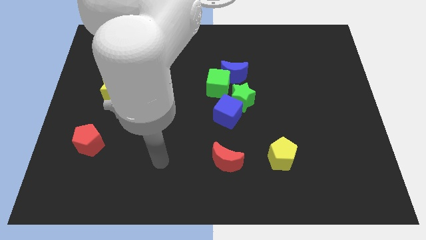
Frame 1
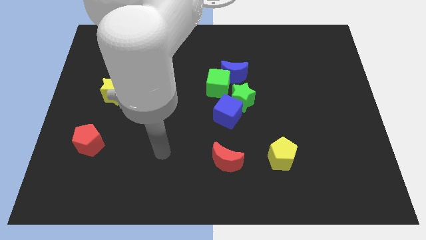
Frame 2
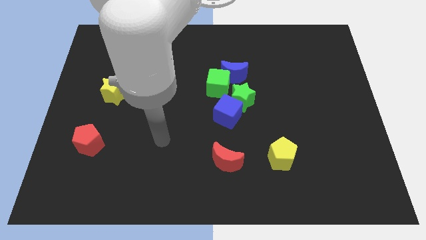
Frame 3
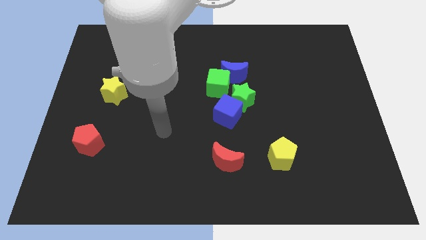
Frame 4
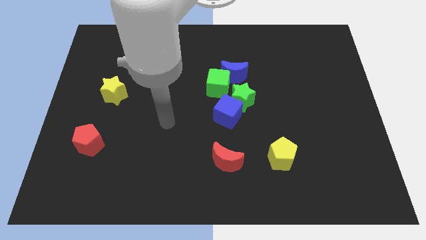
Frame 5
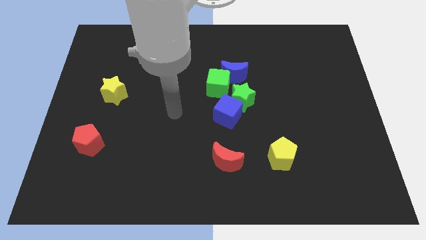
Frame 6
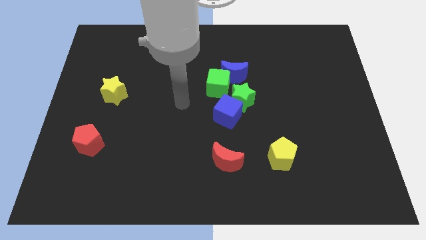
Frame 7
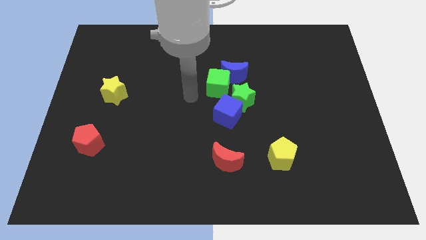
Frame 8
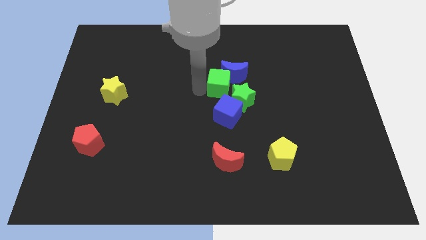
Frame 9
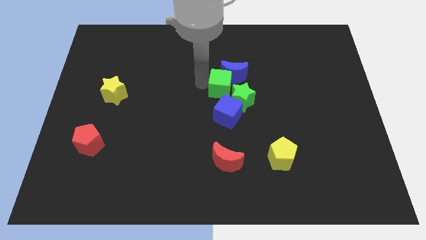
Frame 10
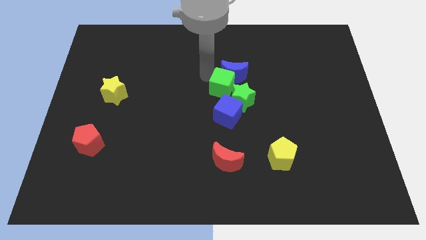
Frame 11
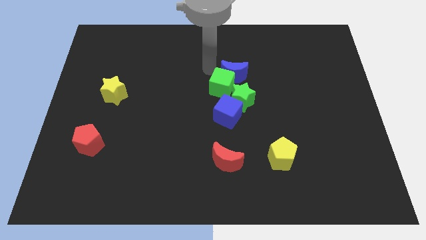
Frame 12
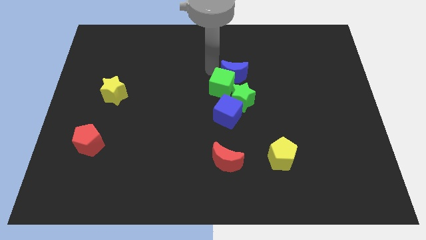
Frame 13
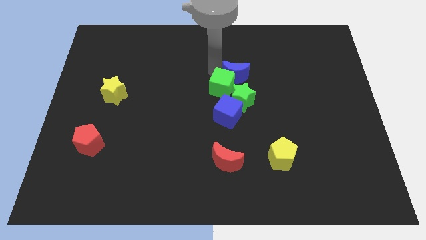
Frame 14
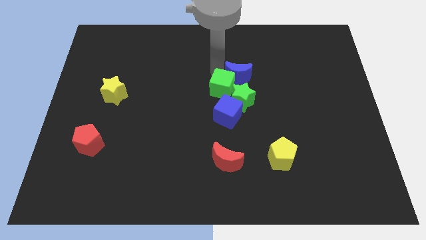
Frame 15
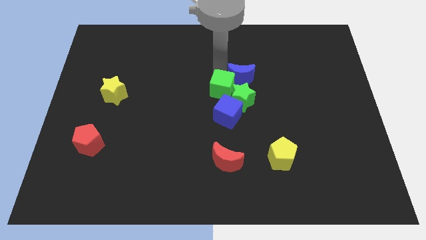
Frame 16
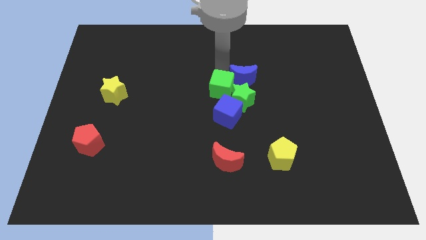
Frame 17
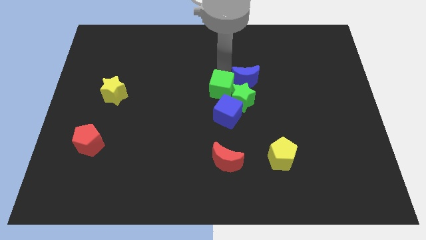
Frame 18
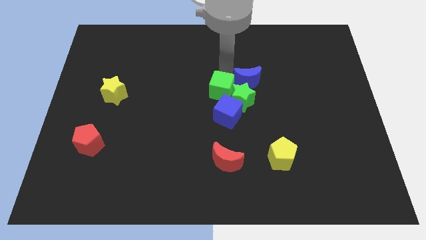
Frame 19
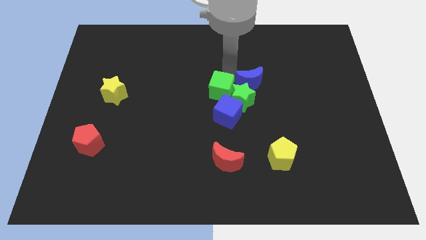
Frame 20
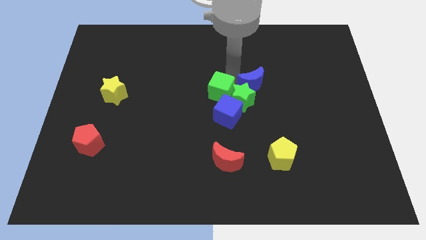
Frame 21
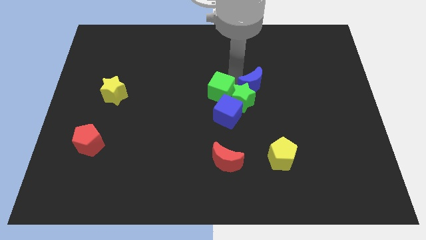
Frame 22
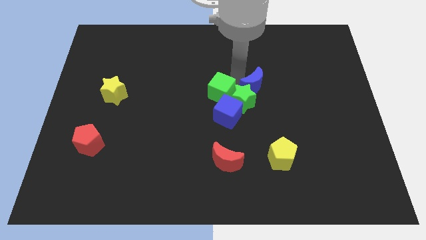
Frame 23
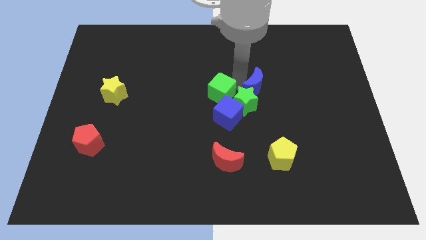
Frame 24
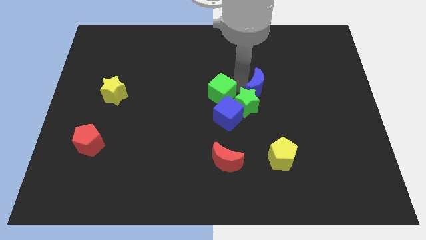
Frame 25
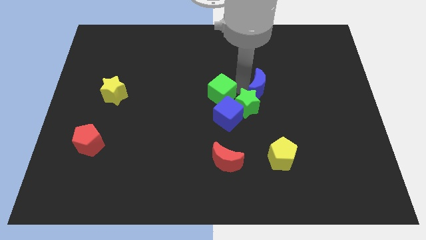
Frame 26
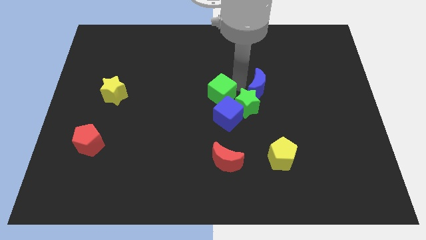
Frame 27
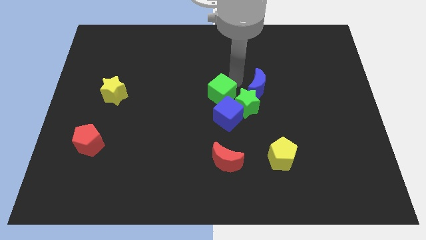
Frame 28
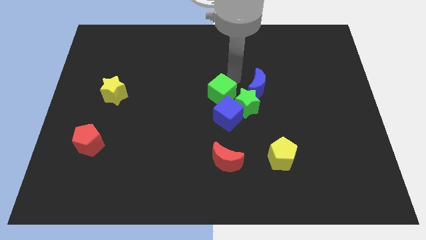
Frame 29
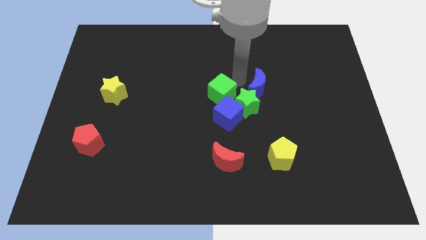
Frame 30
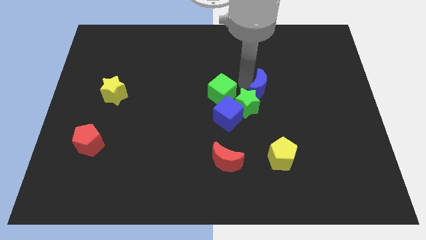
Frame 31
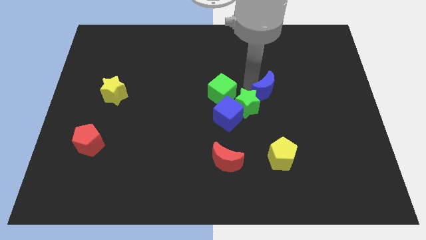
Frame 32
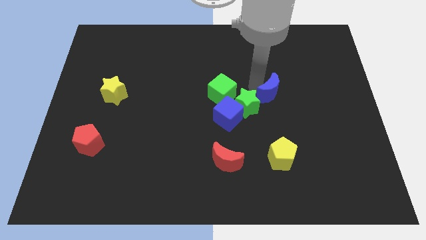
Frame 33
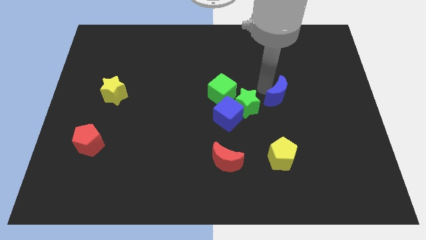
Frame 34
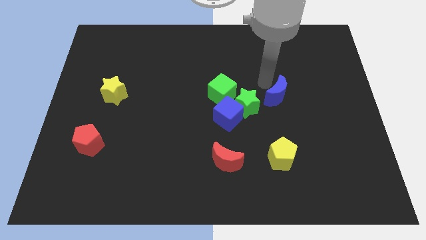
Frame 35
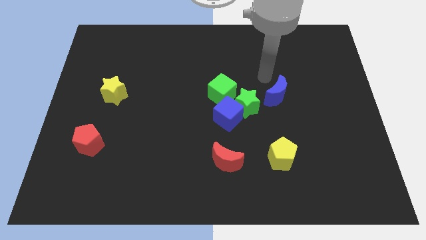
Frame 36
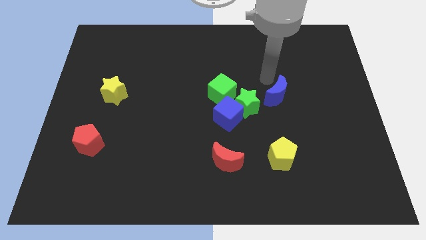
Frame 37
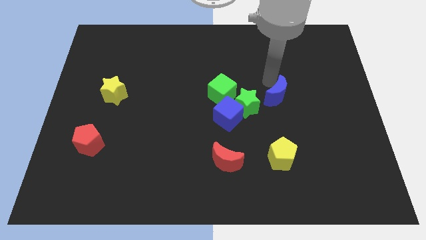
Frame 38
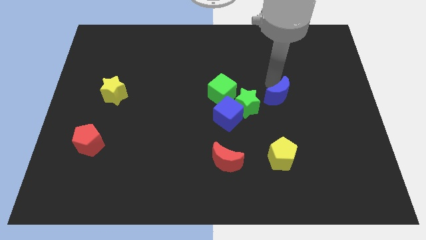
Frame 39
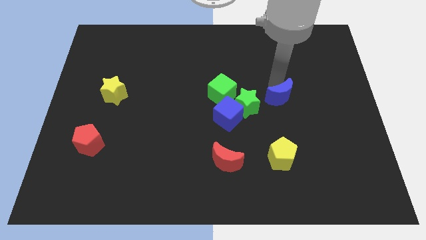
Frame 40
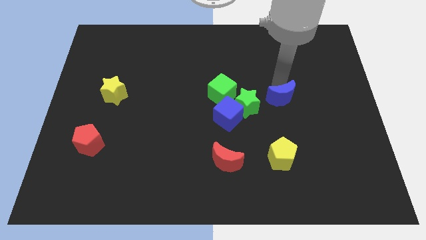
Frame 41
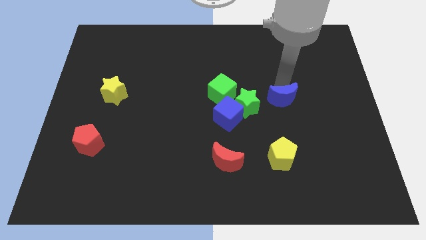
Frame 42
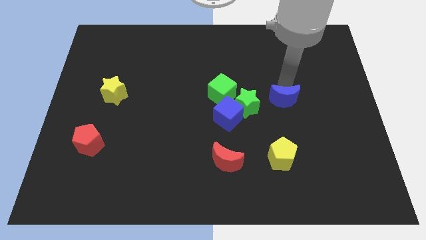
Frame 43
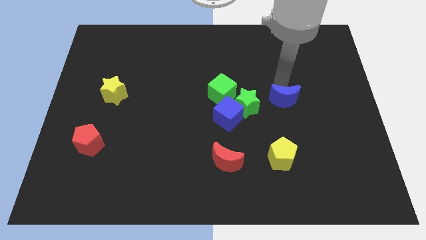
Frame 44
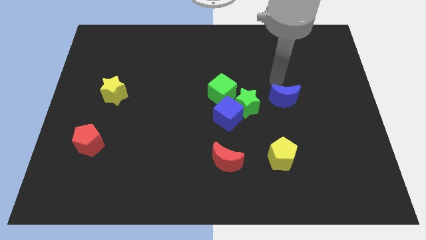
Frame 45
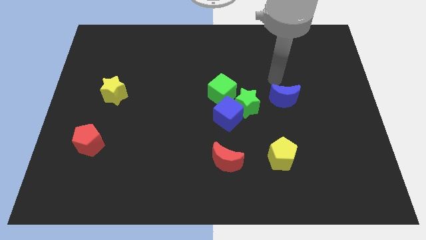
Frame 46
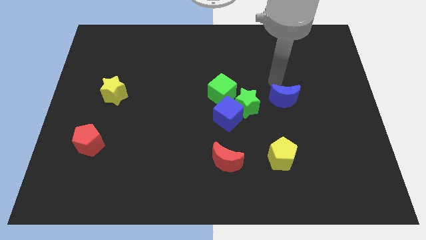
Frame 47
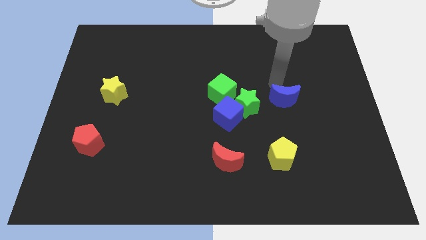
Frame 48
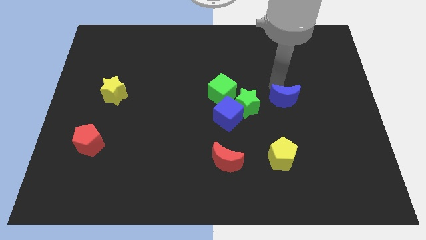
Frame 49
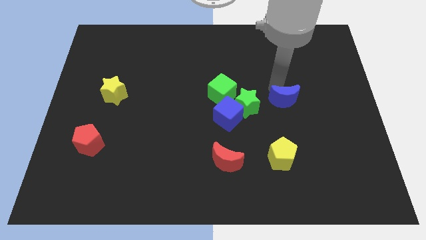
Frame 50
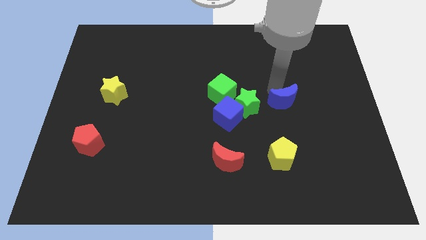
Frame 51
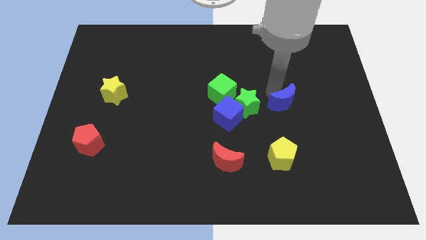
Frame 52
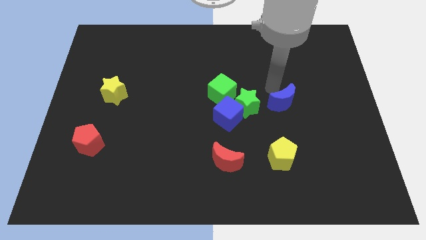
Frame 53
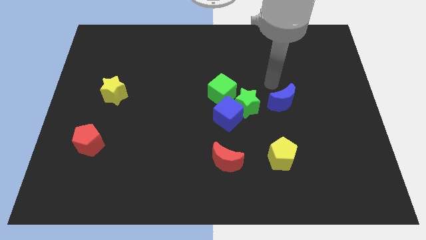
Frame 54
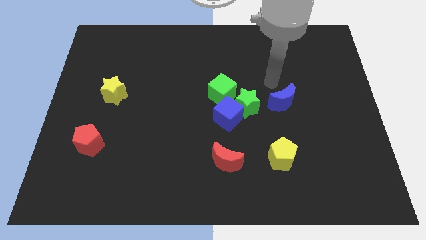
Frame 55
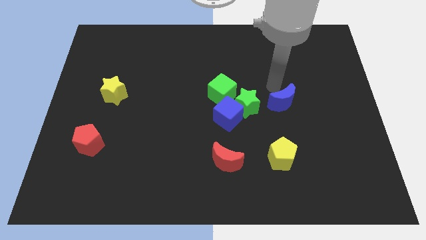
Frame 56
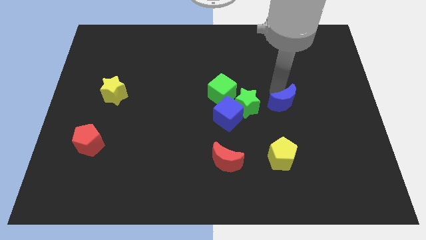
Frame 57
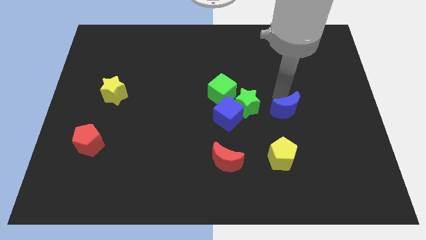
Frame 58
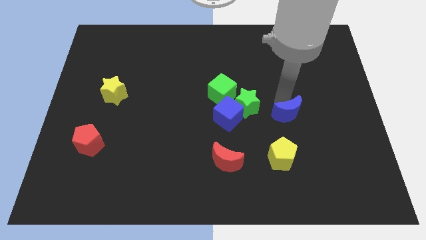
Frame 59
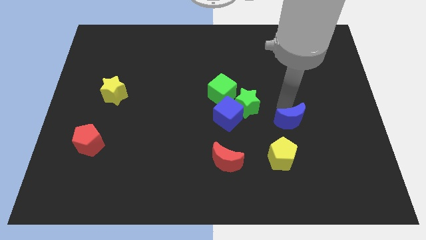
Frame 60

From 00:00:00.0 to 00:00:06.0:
push the blue moon to the top right of the yellow pentagon
